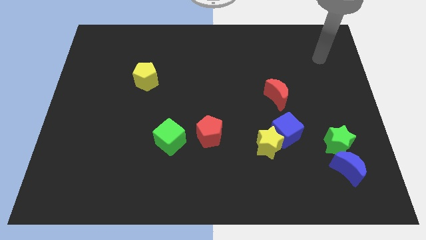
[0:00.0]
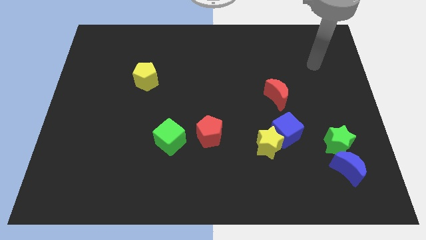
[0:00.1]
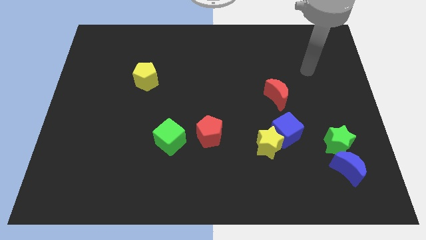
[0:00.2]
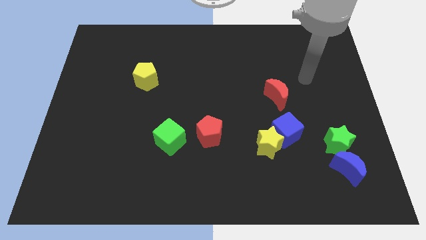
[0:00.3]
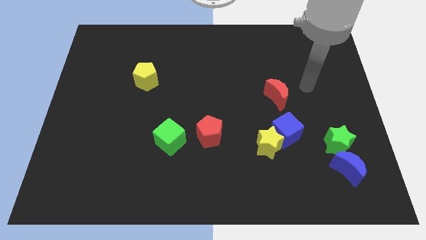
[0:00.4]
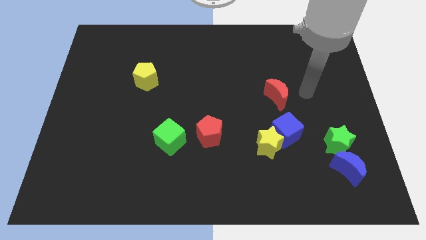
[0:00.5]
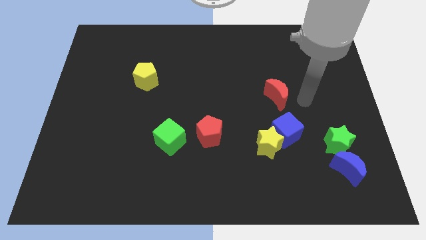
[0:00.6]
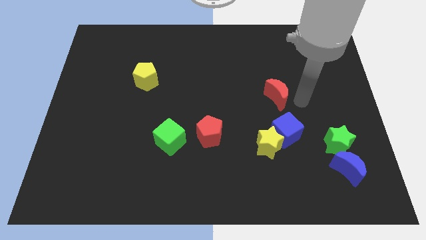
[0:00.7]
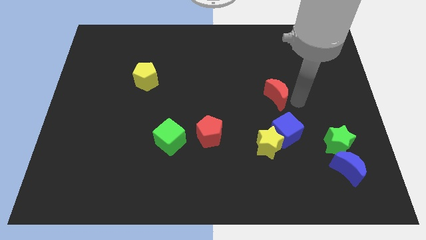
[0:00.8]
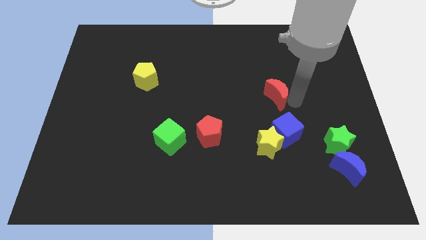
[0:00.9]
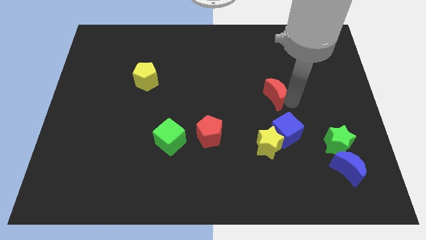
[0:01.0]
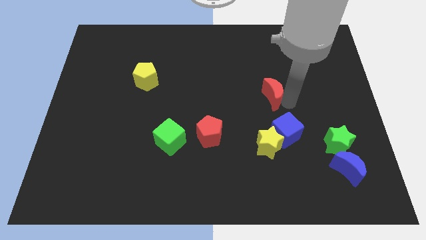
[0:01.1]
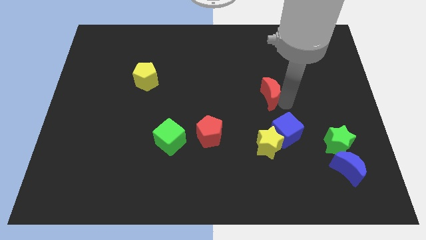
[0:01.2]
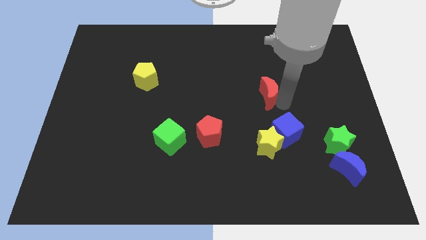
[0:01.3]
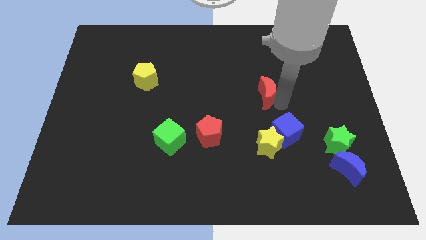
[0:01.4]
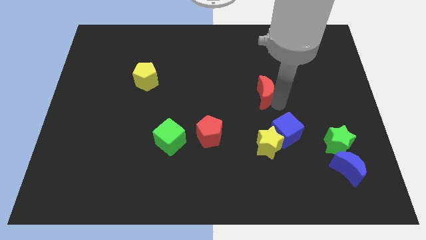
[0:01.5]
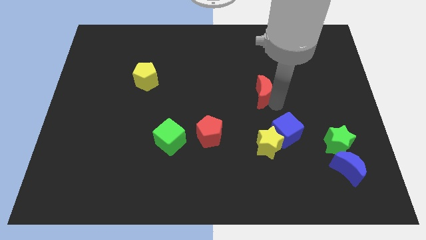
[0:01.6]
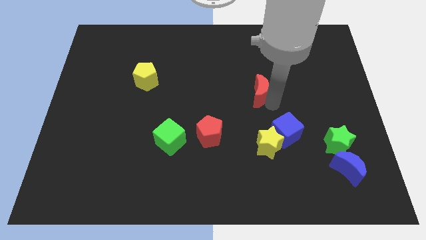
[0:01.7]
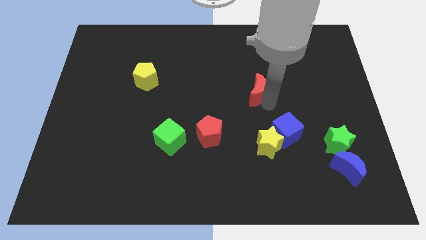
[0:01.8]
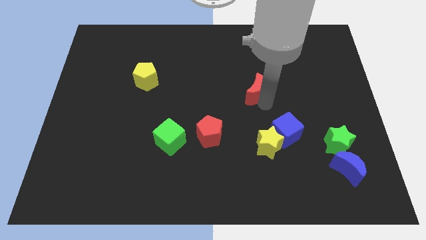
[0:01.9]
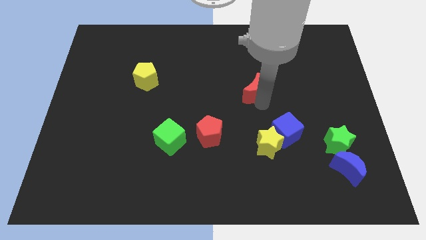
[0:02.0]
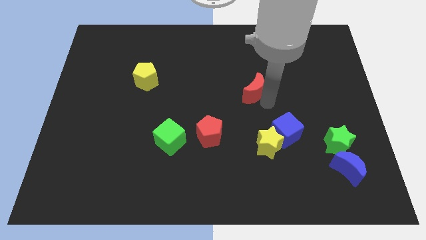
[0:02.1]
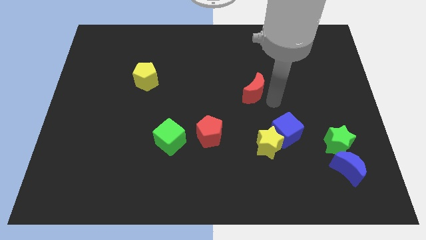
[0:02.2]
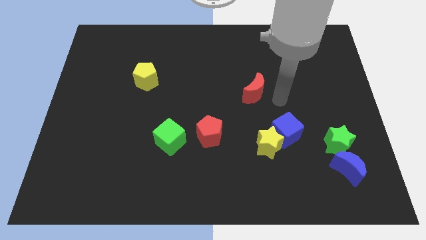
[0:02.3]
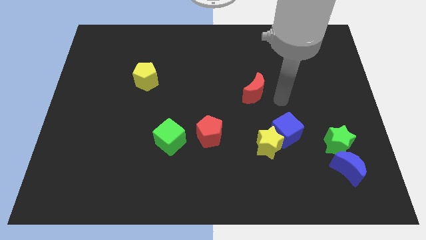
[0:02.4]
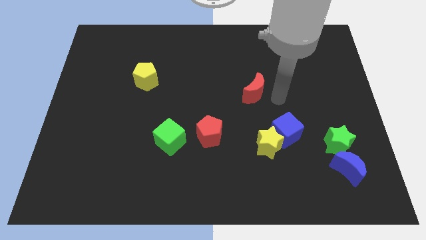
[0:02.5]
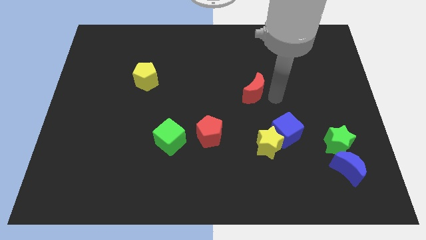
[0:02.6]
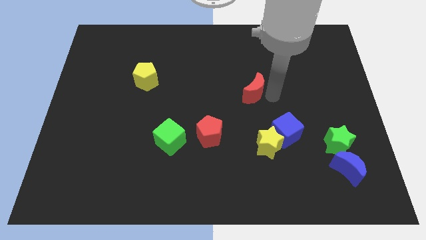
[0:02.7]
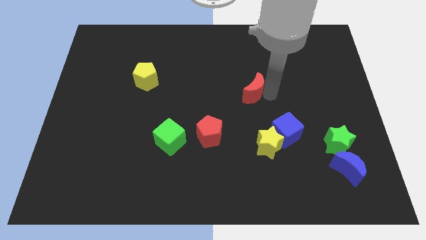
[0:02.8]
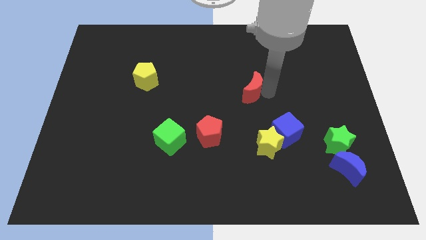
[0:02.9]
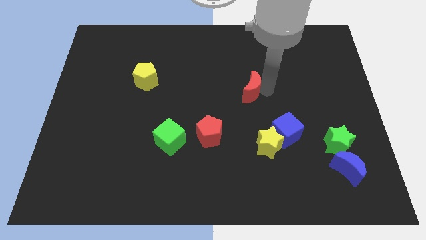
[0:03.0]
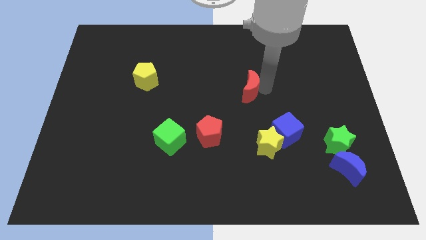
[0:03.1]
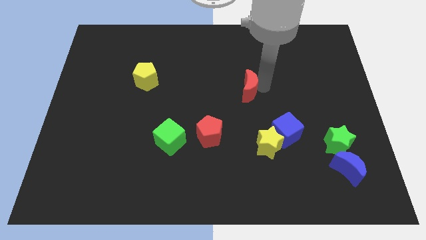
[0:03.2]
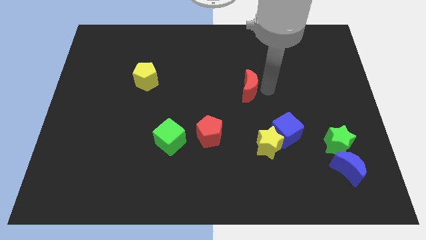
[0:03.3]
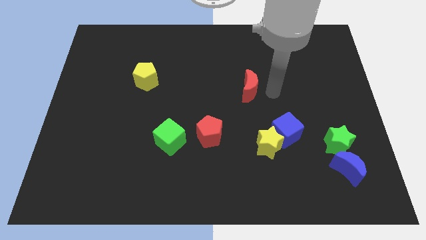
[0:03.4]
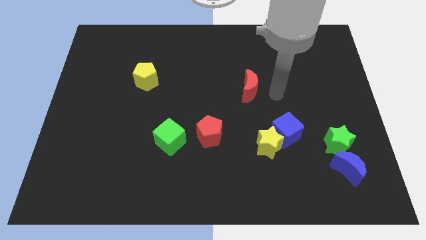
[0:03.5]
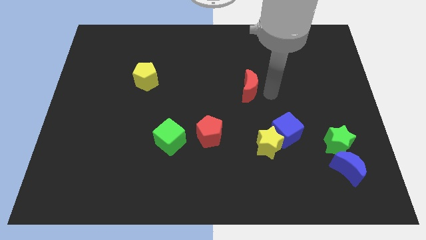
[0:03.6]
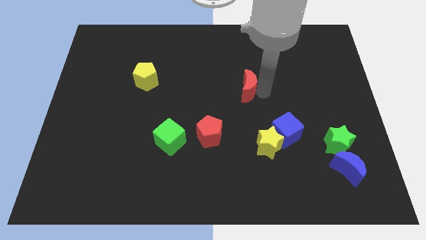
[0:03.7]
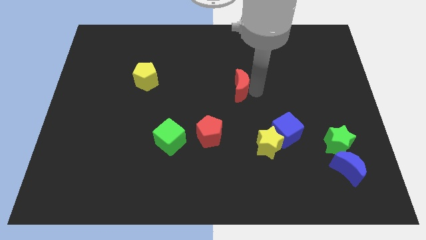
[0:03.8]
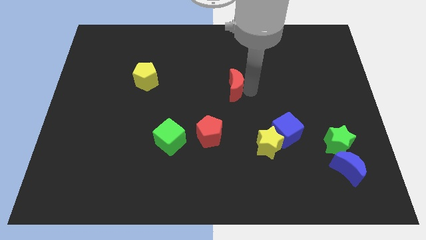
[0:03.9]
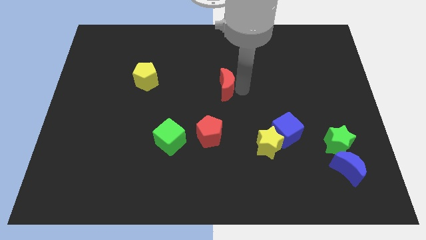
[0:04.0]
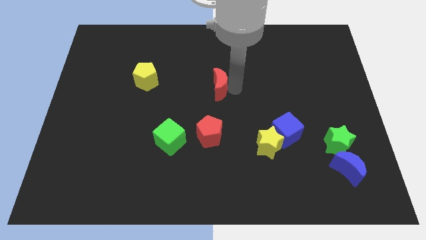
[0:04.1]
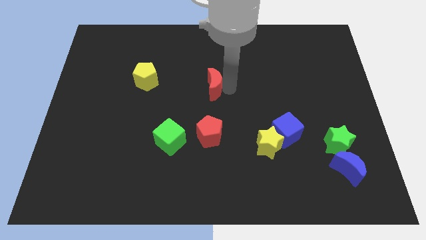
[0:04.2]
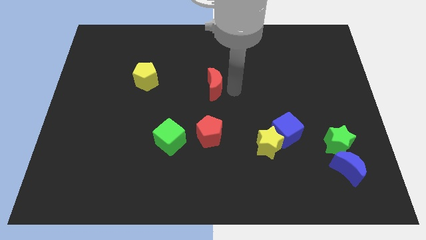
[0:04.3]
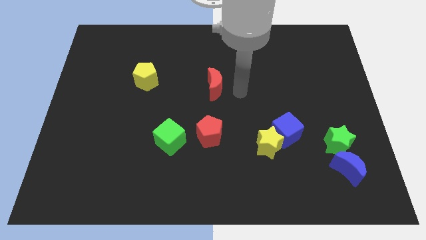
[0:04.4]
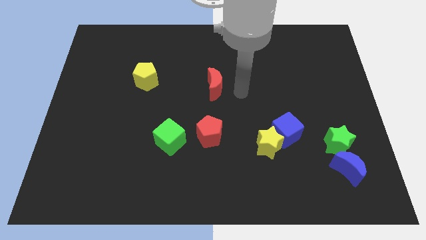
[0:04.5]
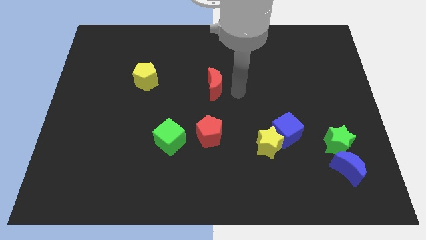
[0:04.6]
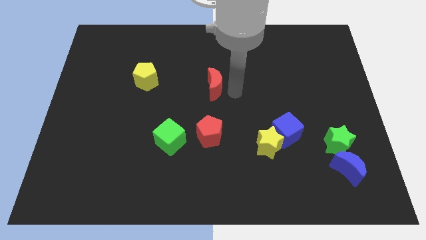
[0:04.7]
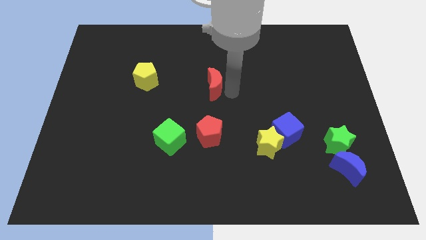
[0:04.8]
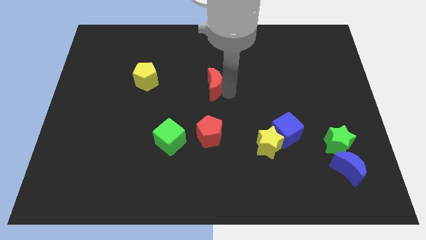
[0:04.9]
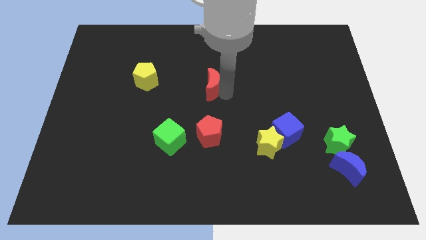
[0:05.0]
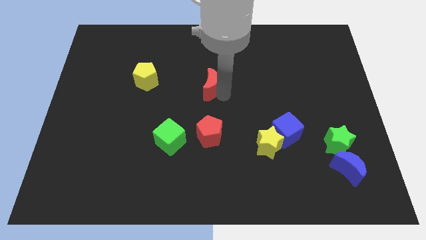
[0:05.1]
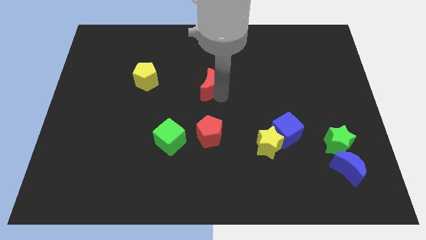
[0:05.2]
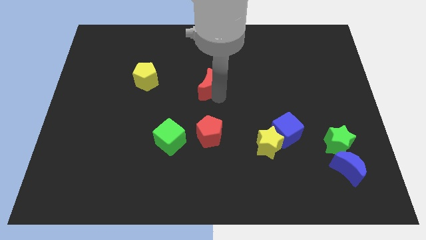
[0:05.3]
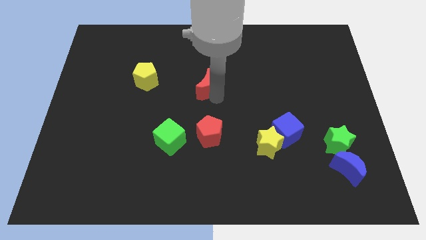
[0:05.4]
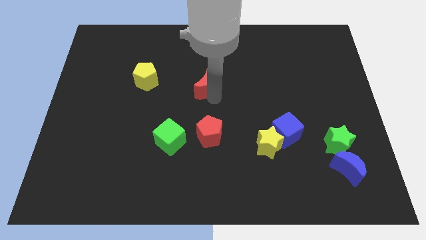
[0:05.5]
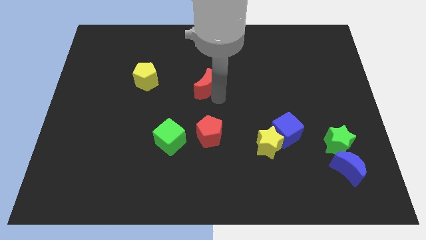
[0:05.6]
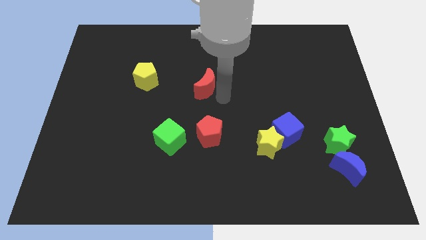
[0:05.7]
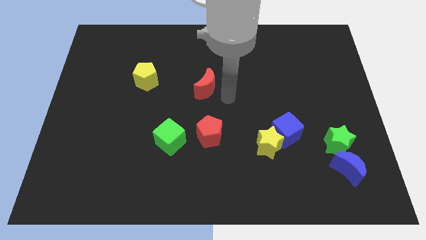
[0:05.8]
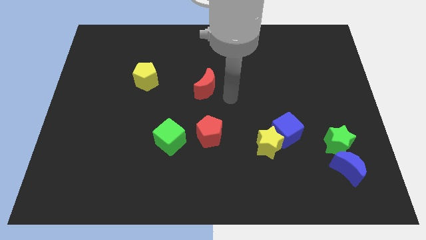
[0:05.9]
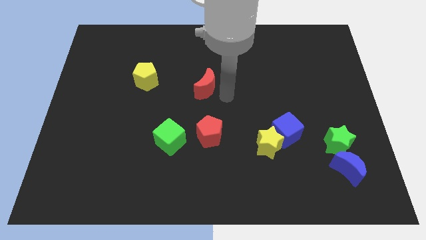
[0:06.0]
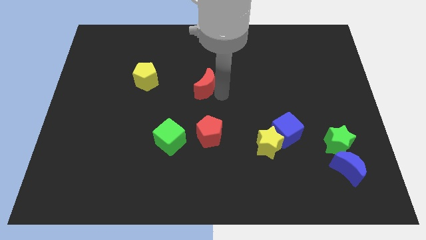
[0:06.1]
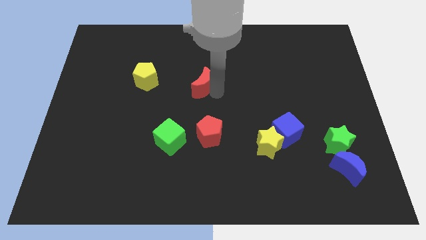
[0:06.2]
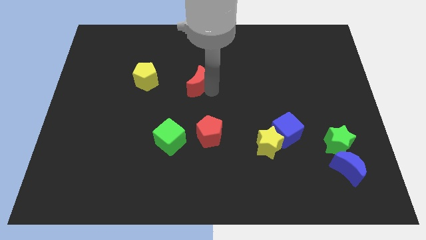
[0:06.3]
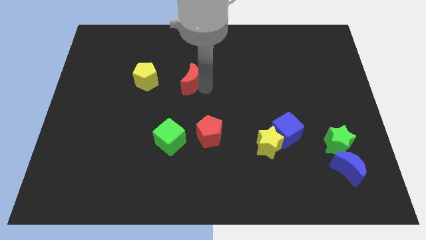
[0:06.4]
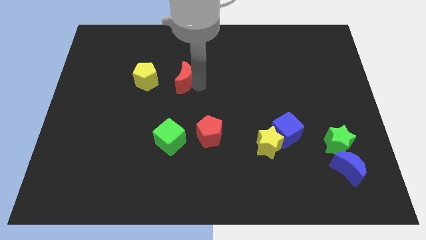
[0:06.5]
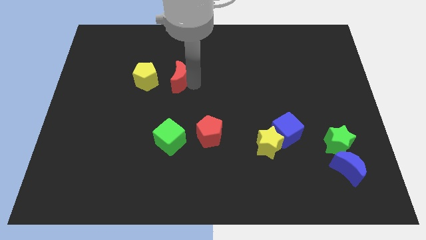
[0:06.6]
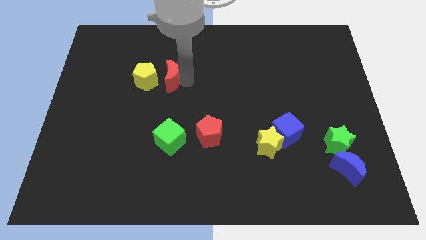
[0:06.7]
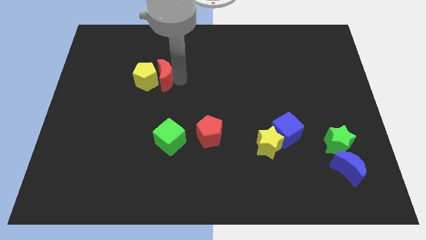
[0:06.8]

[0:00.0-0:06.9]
move the red moon towards the yellow pentagon
